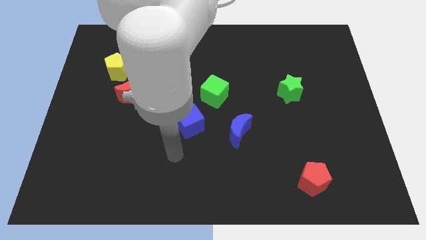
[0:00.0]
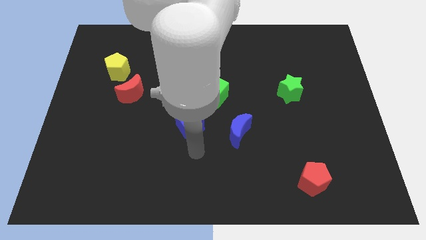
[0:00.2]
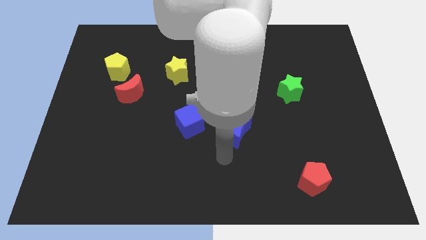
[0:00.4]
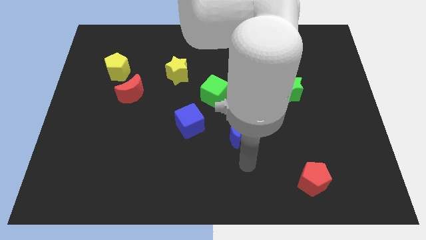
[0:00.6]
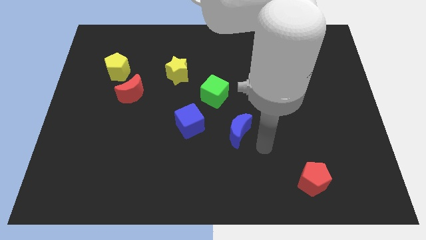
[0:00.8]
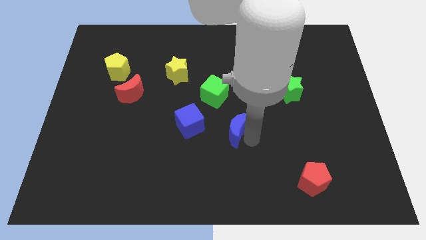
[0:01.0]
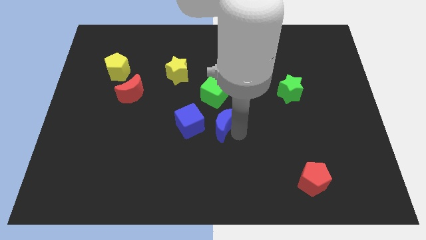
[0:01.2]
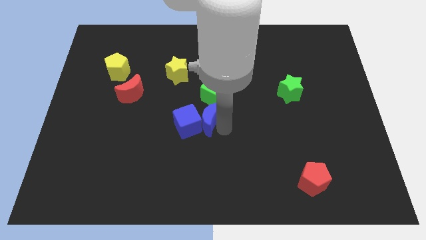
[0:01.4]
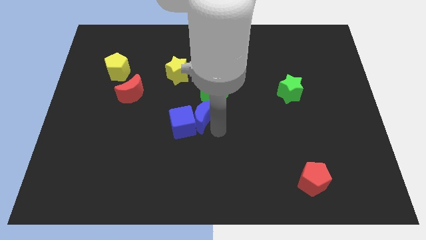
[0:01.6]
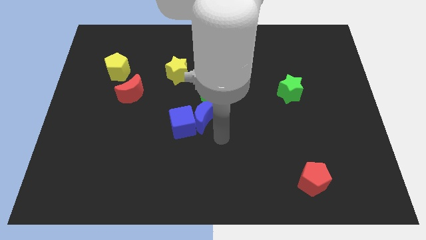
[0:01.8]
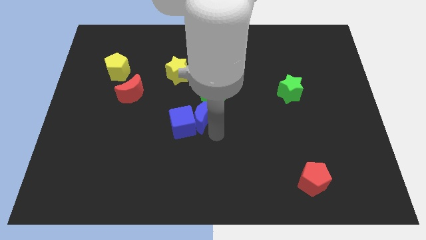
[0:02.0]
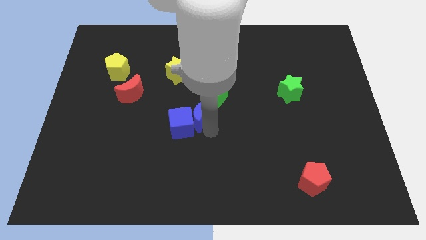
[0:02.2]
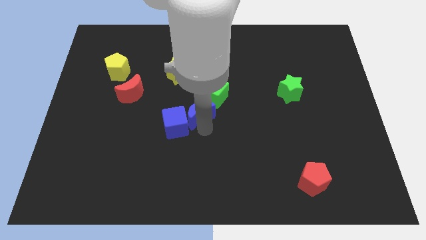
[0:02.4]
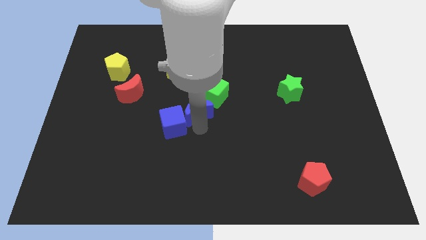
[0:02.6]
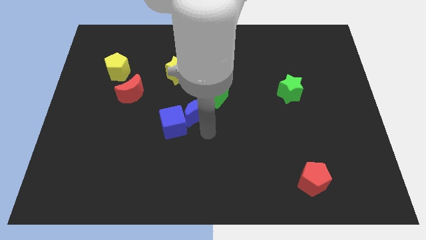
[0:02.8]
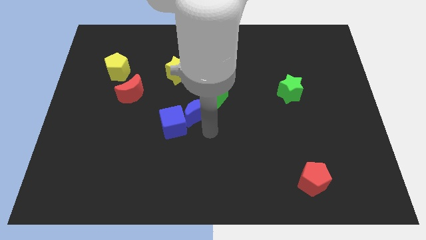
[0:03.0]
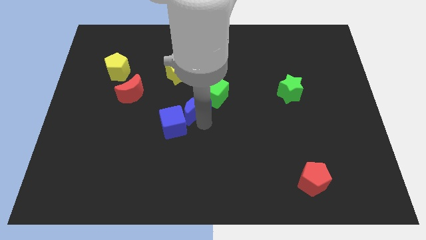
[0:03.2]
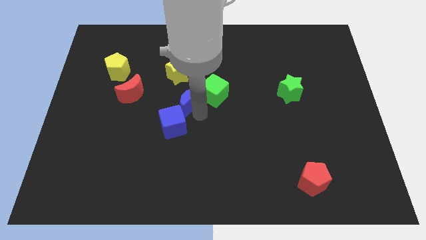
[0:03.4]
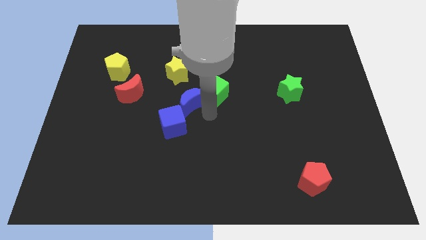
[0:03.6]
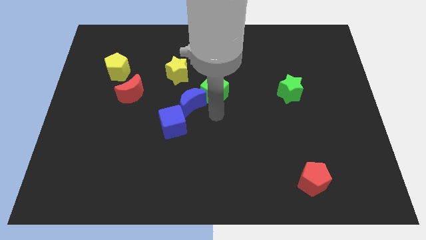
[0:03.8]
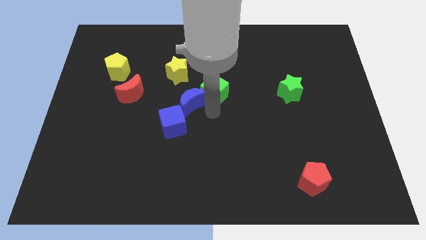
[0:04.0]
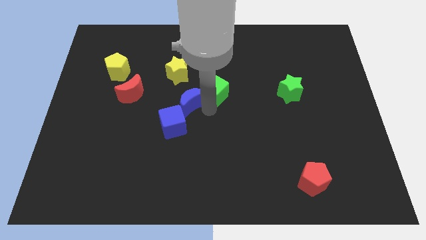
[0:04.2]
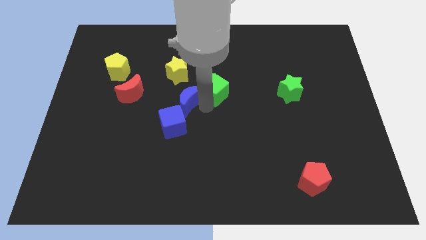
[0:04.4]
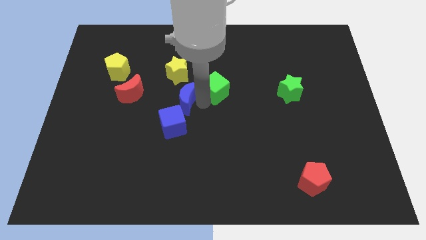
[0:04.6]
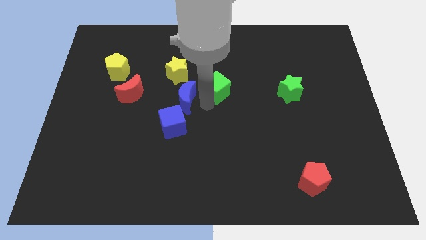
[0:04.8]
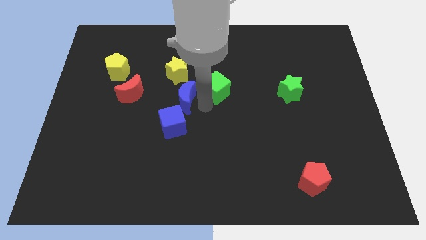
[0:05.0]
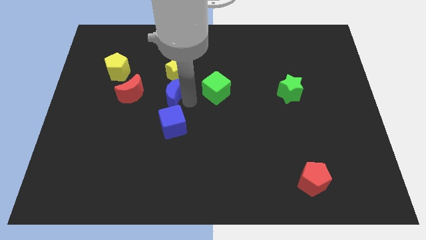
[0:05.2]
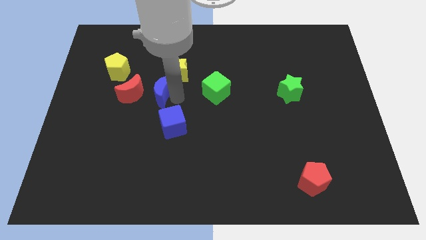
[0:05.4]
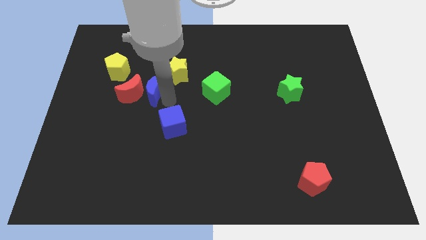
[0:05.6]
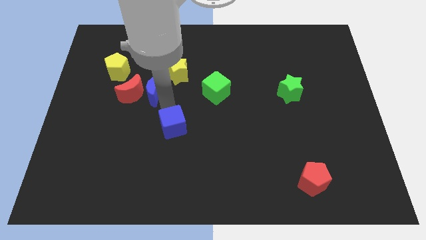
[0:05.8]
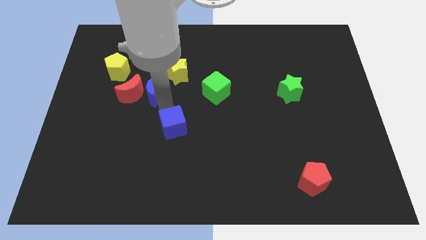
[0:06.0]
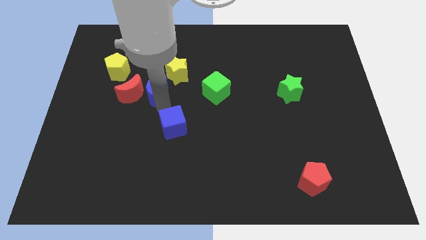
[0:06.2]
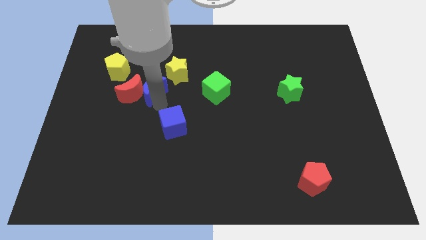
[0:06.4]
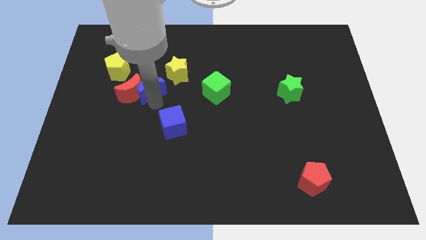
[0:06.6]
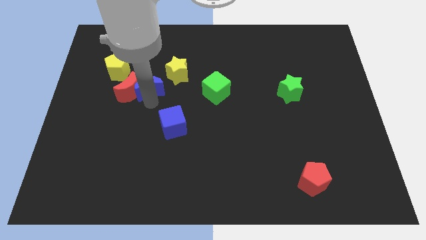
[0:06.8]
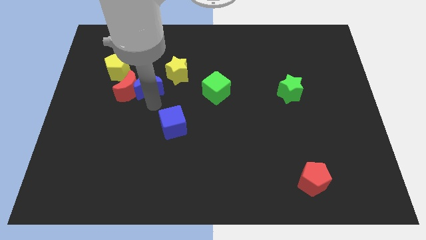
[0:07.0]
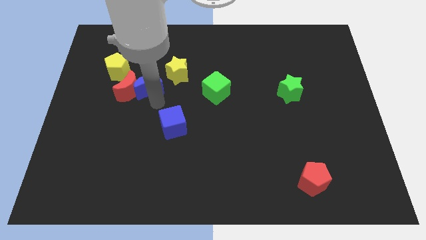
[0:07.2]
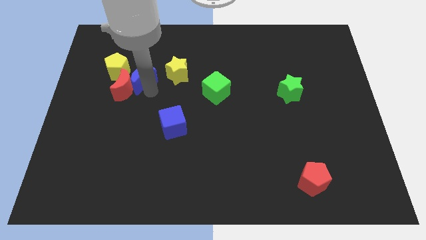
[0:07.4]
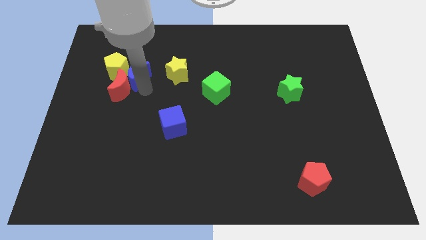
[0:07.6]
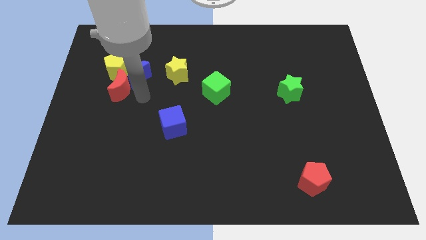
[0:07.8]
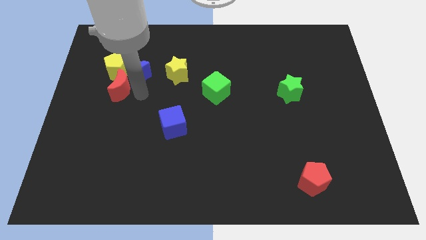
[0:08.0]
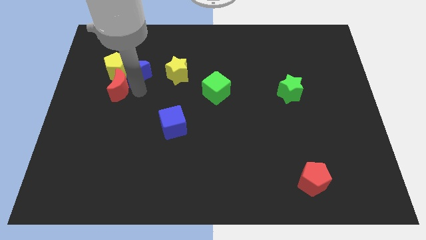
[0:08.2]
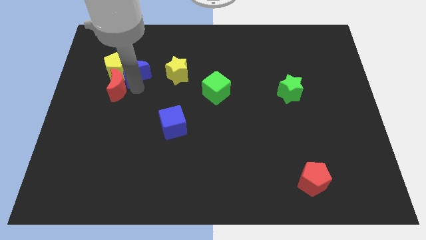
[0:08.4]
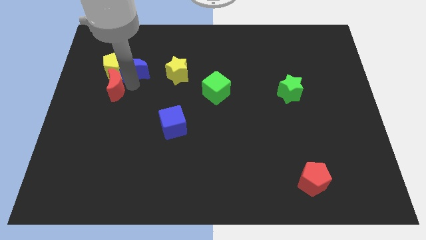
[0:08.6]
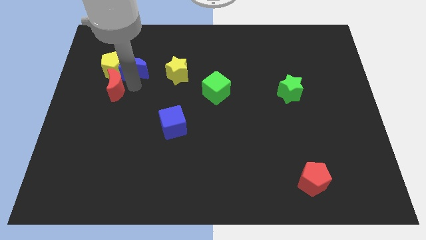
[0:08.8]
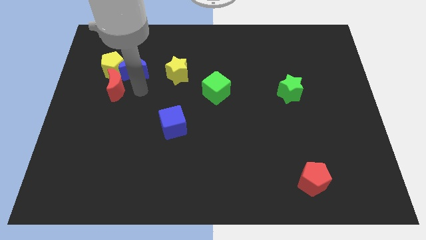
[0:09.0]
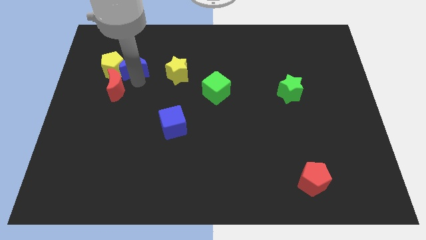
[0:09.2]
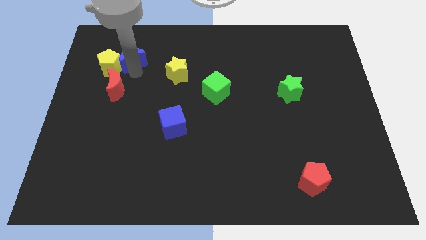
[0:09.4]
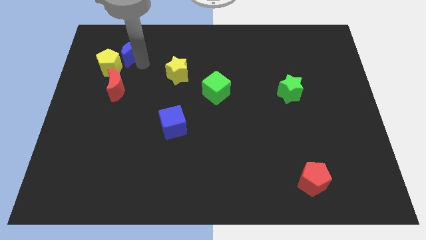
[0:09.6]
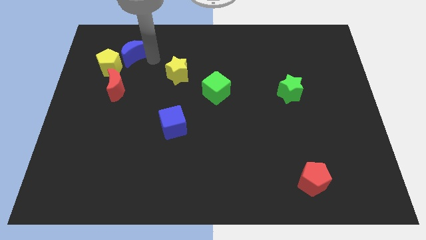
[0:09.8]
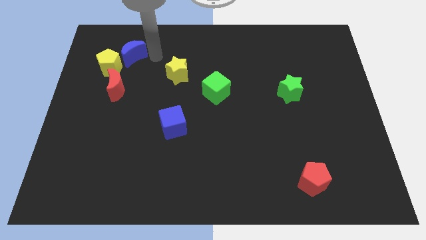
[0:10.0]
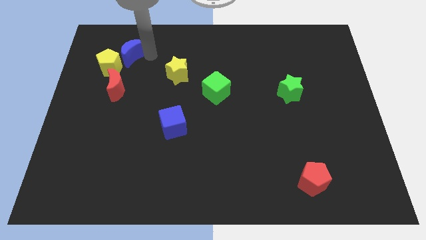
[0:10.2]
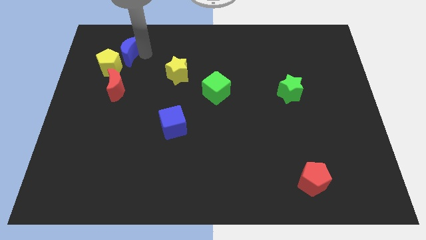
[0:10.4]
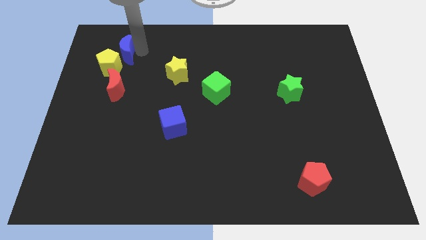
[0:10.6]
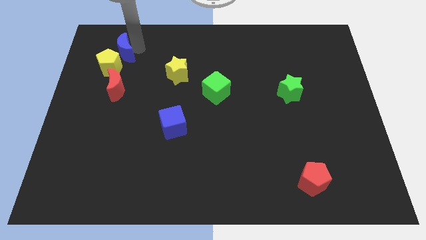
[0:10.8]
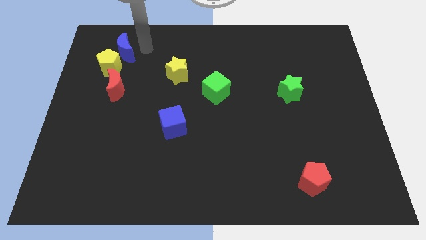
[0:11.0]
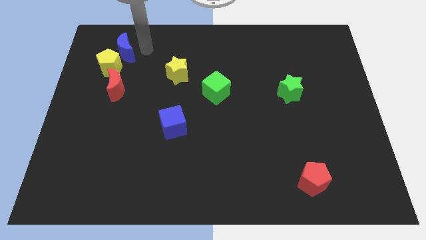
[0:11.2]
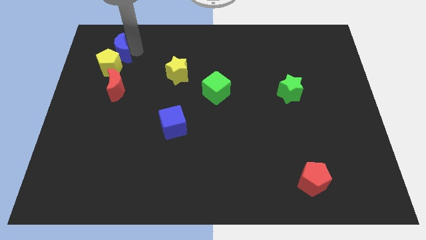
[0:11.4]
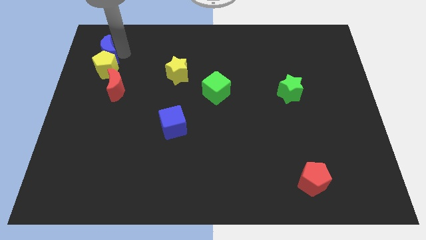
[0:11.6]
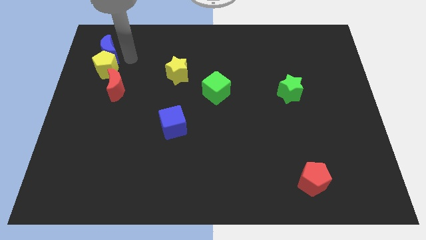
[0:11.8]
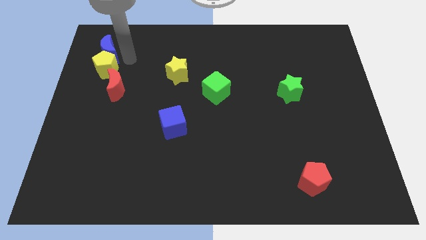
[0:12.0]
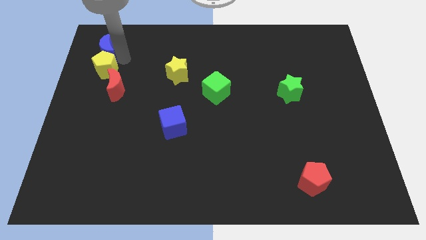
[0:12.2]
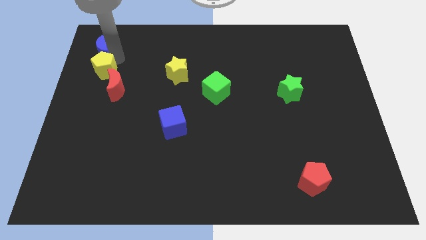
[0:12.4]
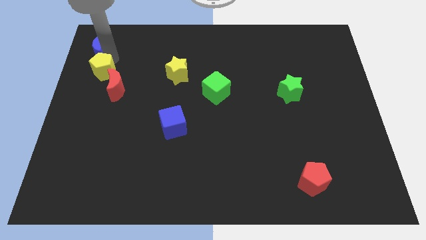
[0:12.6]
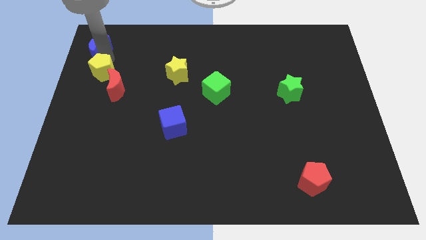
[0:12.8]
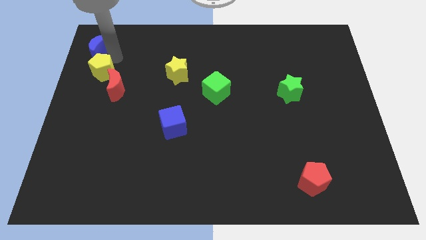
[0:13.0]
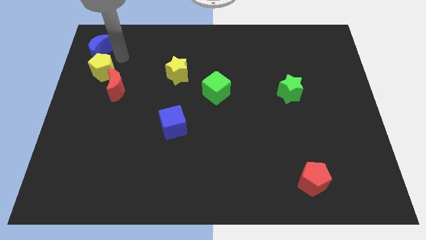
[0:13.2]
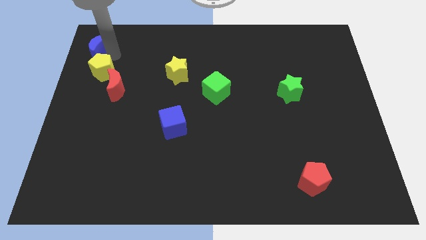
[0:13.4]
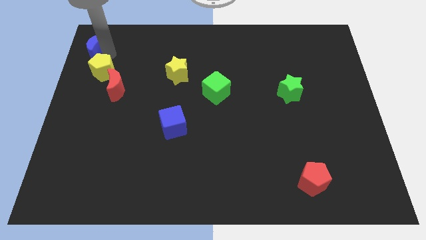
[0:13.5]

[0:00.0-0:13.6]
move the blue moon to the top left of the board
